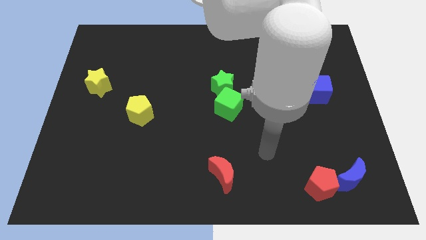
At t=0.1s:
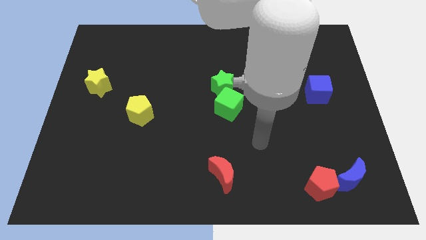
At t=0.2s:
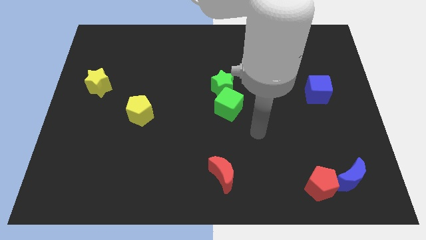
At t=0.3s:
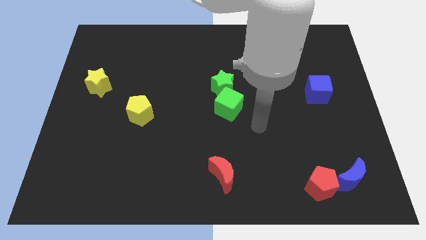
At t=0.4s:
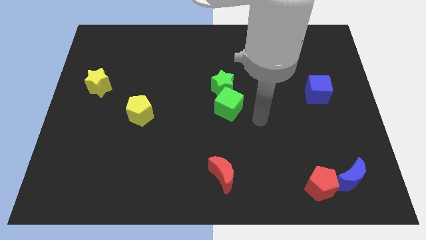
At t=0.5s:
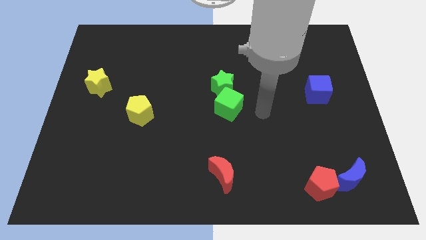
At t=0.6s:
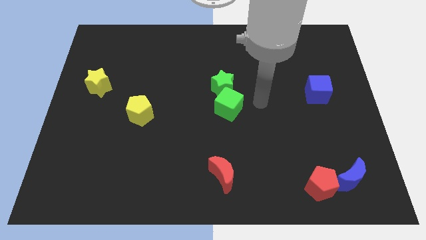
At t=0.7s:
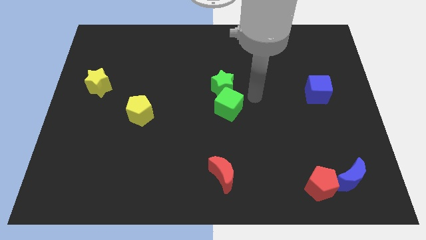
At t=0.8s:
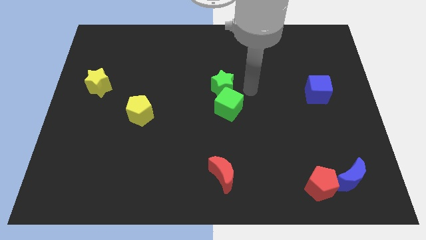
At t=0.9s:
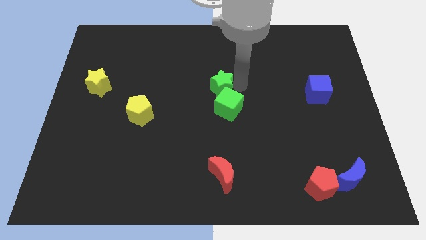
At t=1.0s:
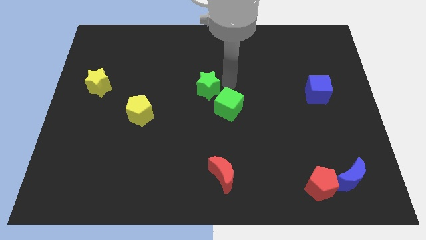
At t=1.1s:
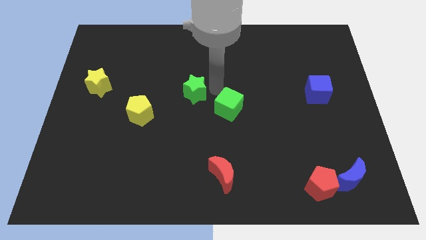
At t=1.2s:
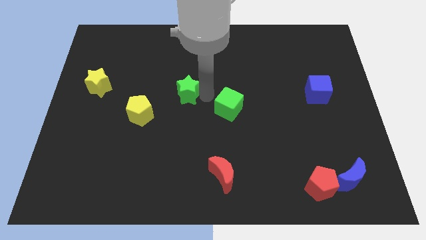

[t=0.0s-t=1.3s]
pull the green cube apart from the green star

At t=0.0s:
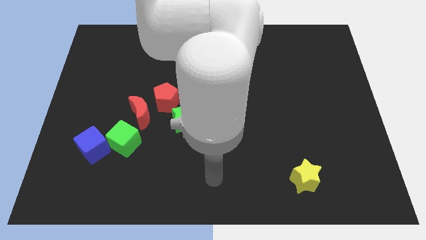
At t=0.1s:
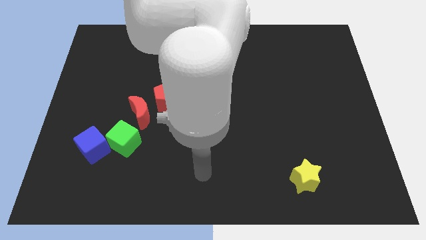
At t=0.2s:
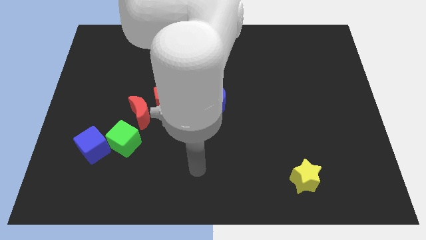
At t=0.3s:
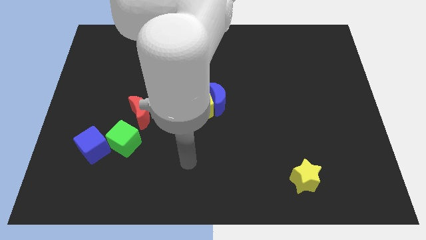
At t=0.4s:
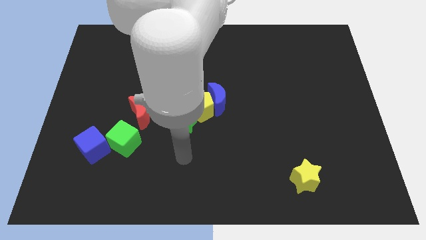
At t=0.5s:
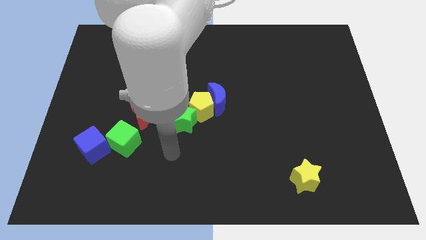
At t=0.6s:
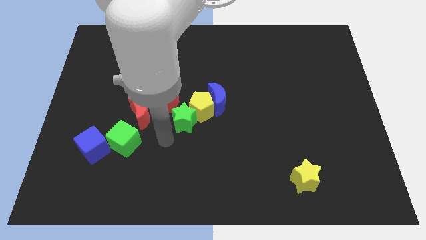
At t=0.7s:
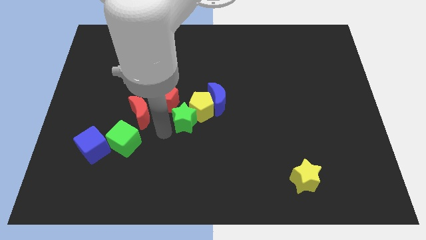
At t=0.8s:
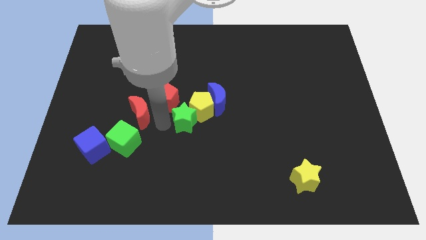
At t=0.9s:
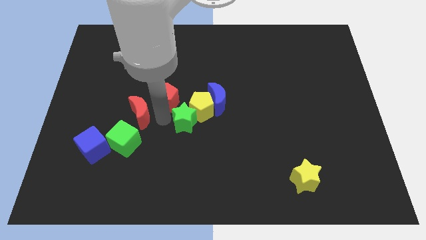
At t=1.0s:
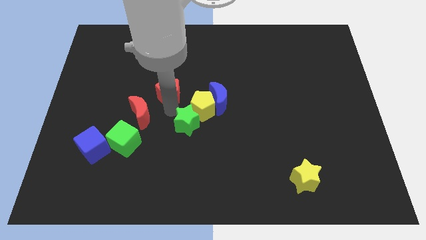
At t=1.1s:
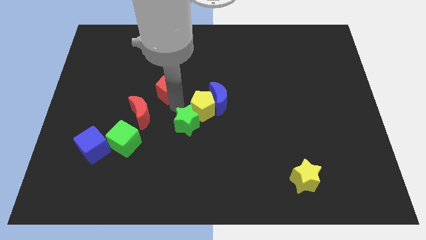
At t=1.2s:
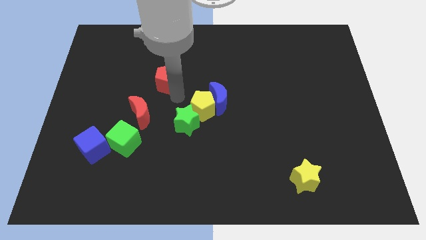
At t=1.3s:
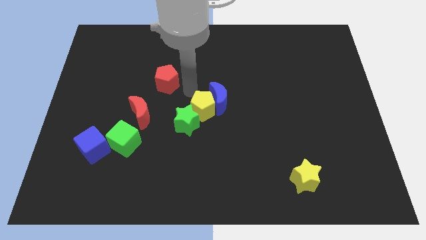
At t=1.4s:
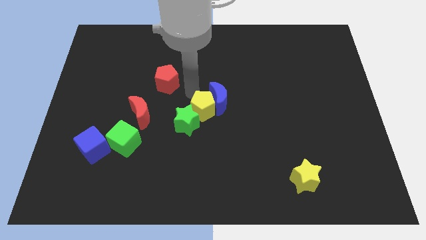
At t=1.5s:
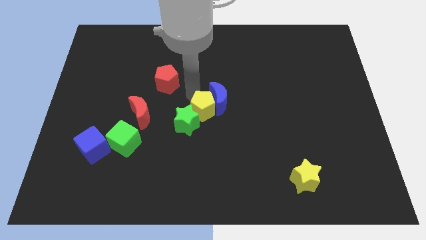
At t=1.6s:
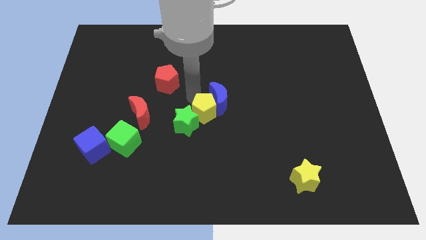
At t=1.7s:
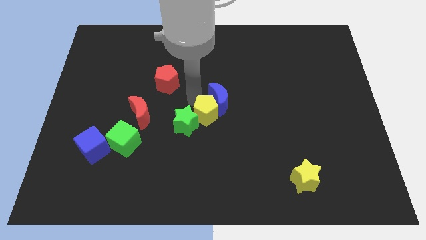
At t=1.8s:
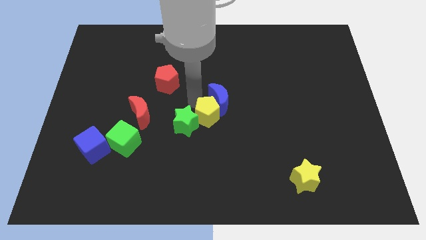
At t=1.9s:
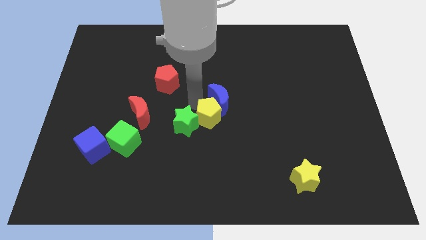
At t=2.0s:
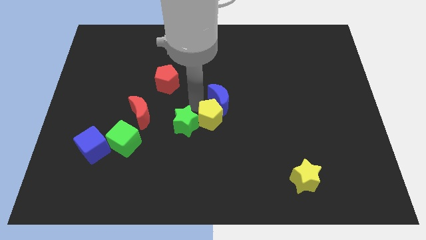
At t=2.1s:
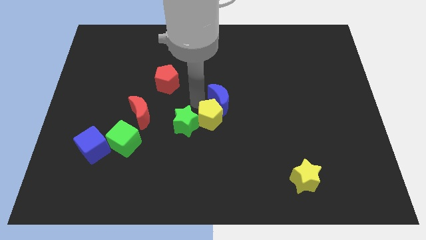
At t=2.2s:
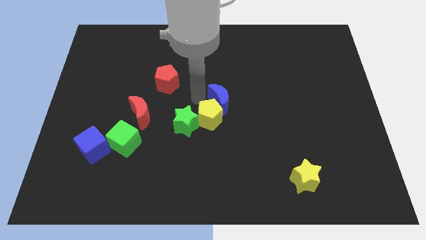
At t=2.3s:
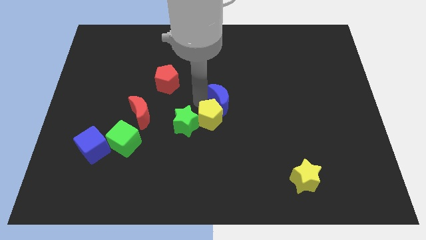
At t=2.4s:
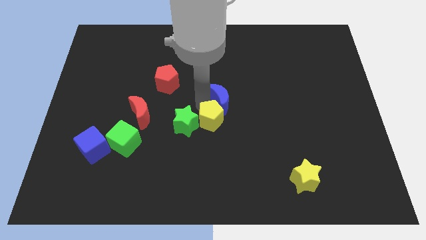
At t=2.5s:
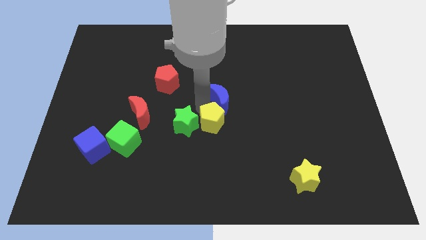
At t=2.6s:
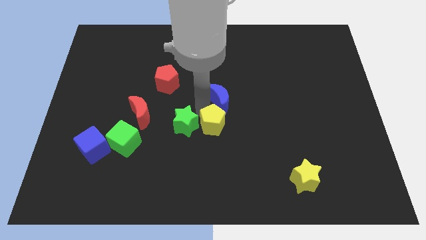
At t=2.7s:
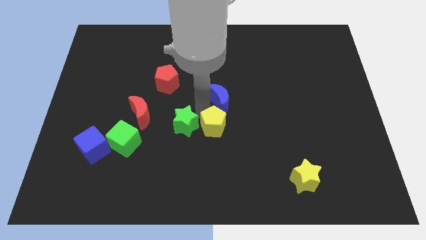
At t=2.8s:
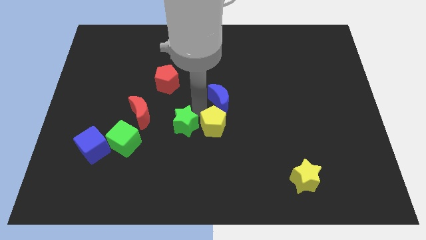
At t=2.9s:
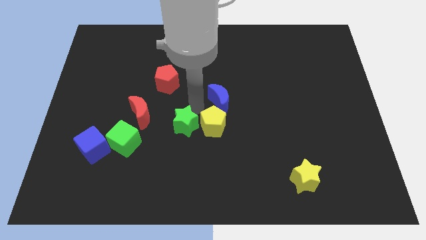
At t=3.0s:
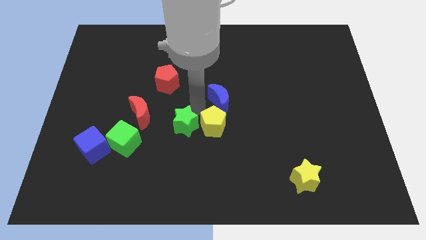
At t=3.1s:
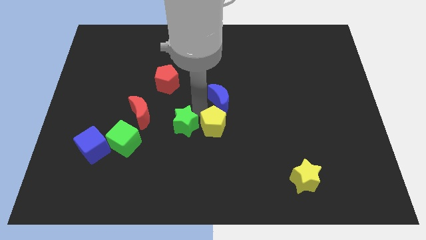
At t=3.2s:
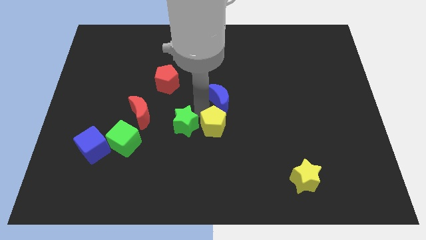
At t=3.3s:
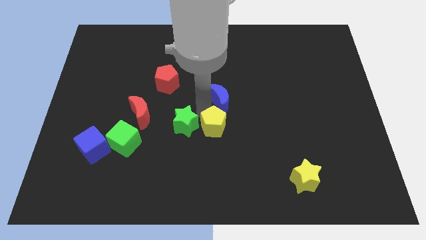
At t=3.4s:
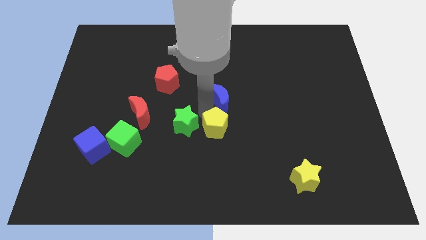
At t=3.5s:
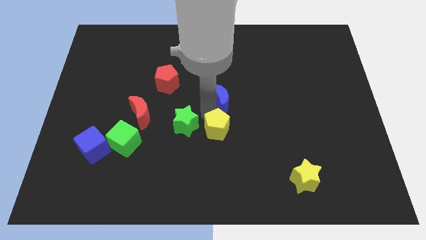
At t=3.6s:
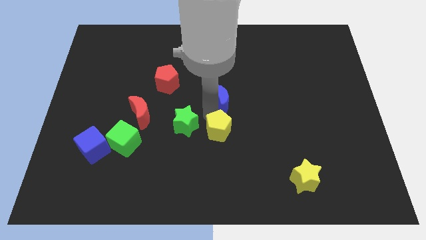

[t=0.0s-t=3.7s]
pull the yellow pentagon apart from the blue moon, green star, and red pentagon

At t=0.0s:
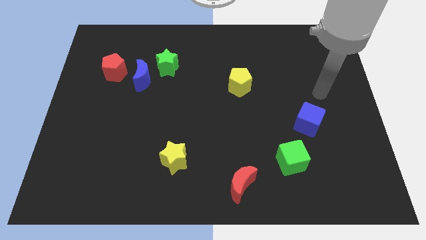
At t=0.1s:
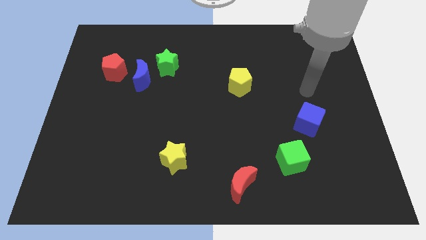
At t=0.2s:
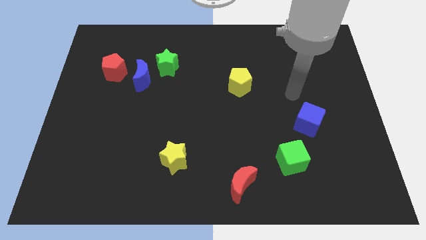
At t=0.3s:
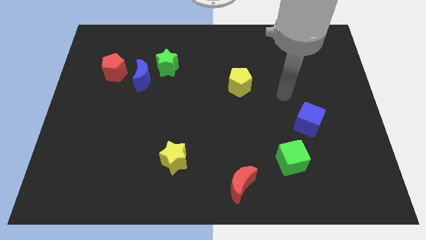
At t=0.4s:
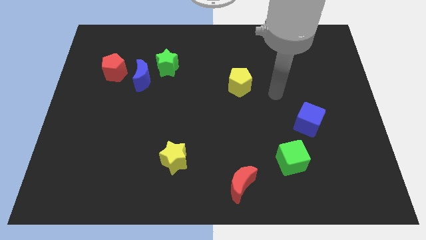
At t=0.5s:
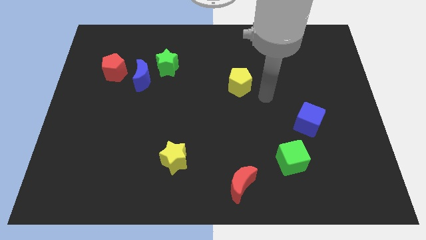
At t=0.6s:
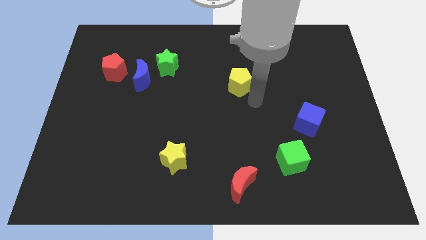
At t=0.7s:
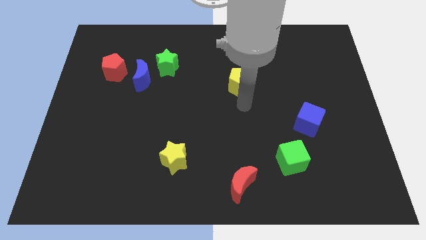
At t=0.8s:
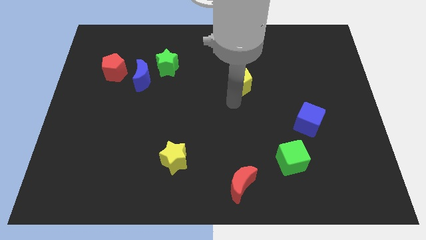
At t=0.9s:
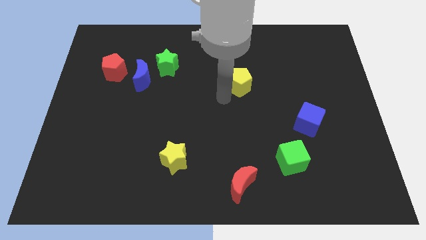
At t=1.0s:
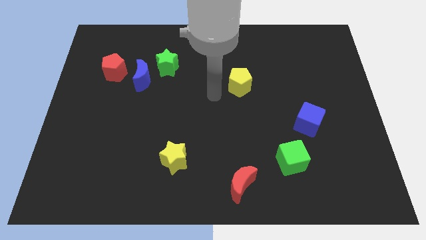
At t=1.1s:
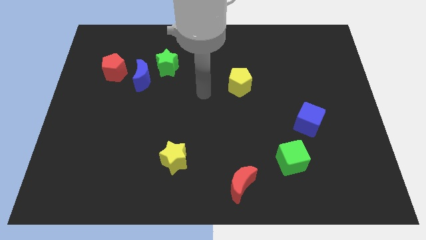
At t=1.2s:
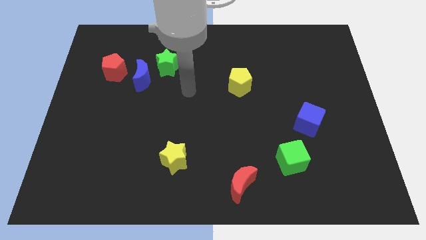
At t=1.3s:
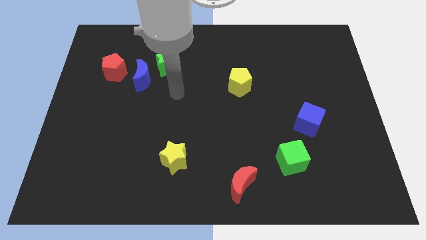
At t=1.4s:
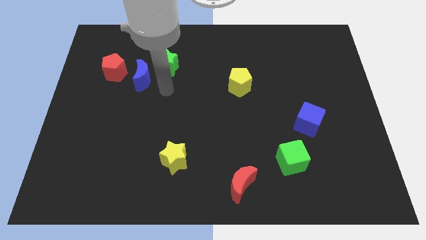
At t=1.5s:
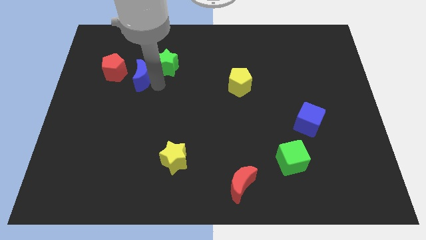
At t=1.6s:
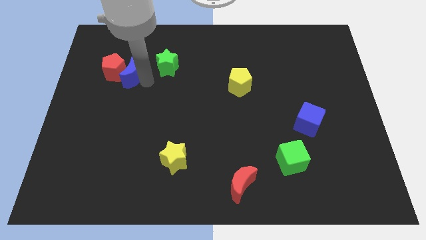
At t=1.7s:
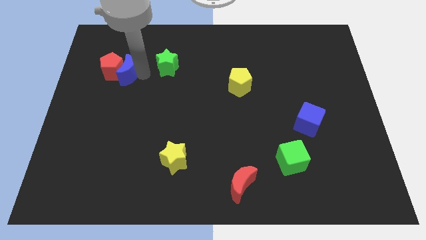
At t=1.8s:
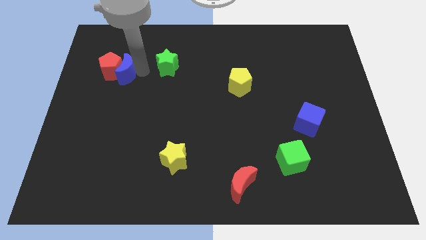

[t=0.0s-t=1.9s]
pull the green star apart from the blue moon

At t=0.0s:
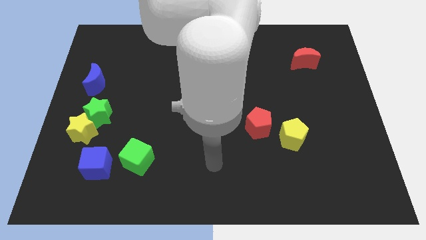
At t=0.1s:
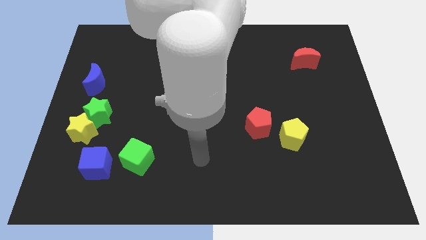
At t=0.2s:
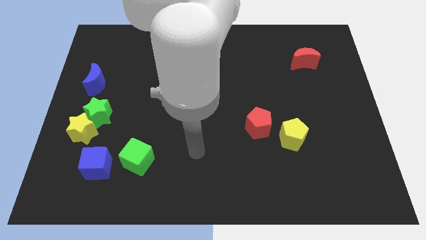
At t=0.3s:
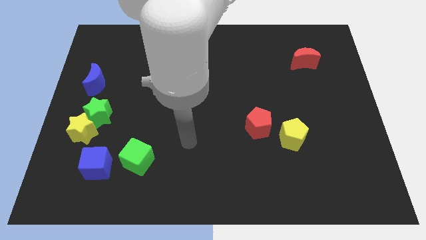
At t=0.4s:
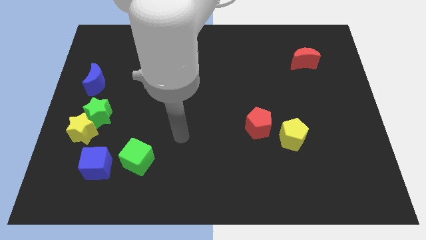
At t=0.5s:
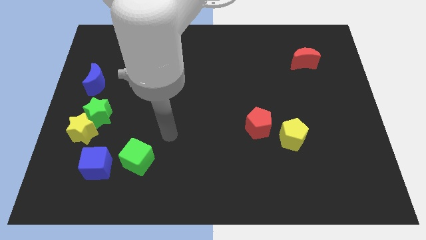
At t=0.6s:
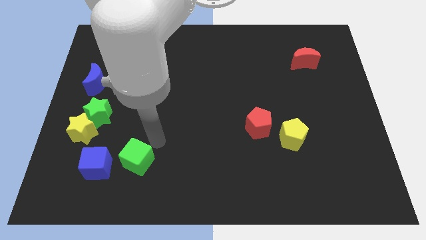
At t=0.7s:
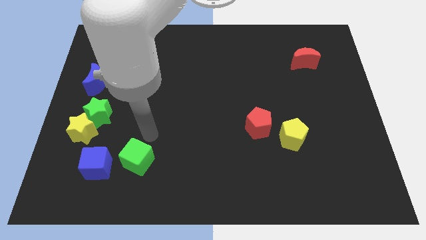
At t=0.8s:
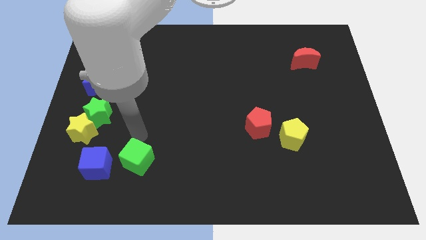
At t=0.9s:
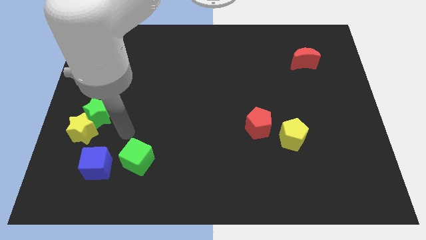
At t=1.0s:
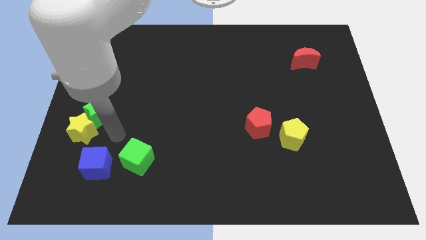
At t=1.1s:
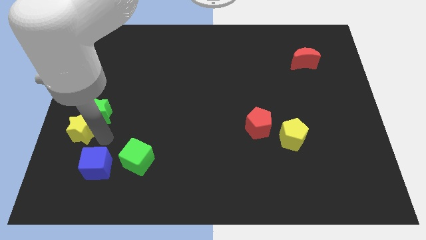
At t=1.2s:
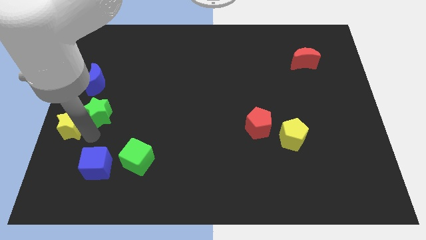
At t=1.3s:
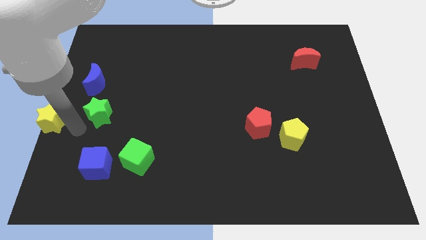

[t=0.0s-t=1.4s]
move the green star away from the yellow star

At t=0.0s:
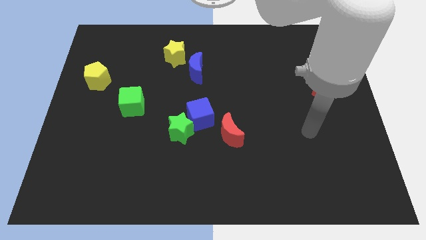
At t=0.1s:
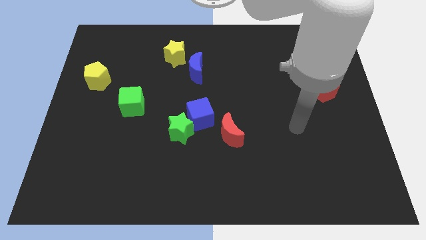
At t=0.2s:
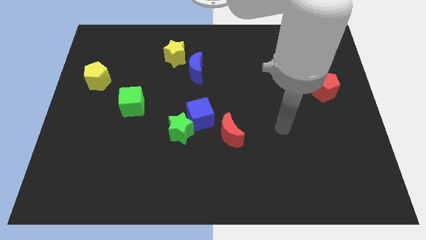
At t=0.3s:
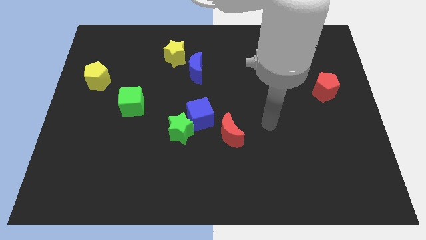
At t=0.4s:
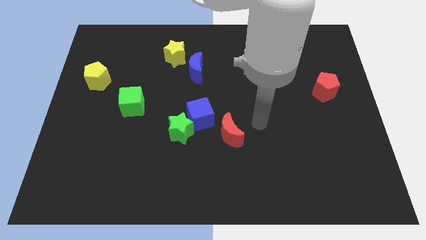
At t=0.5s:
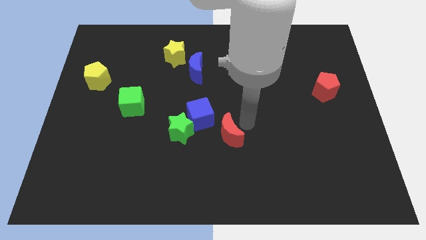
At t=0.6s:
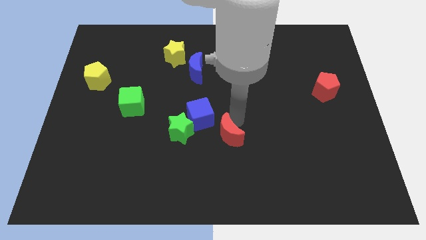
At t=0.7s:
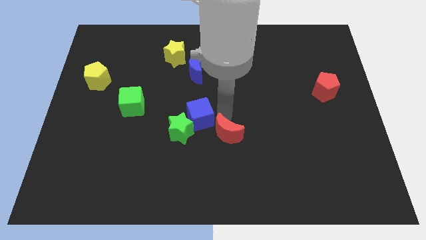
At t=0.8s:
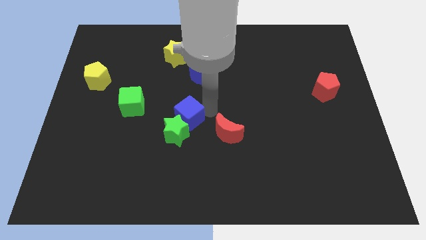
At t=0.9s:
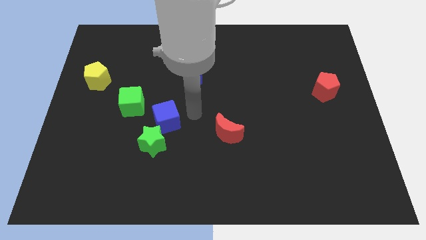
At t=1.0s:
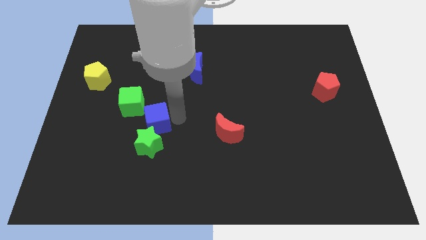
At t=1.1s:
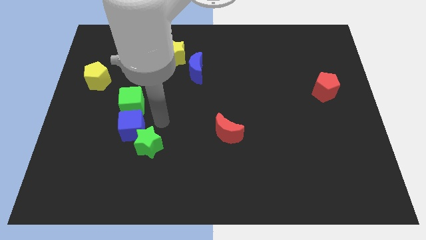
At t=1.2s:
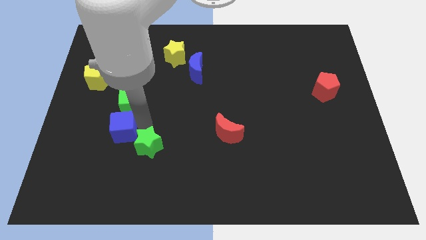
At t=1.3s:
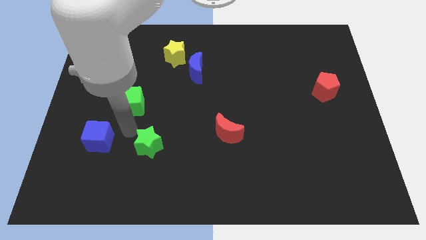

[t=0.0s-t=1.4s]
separate the green star from the blue cube
